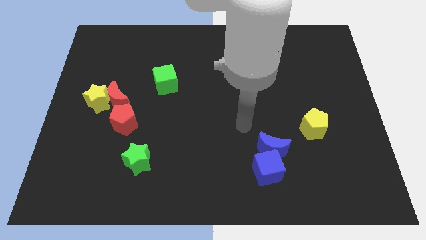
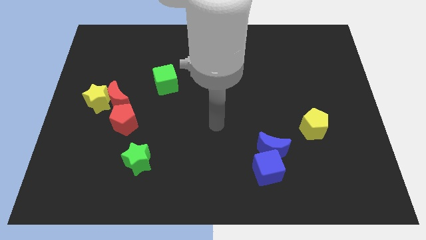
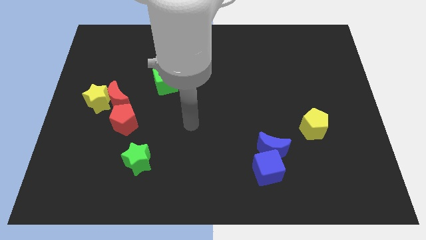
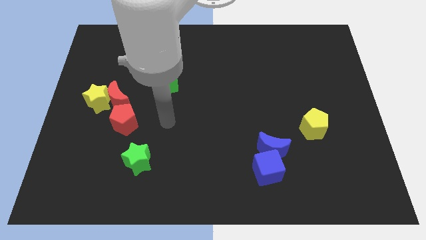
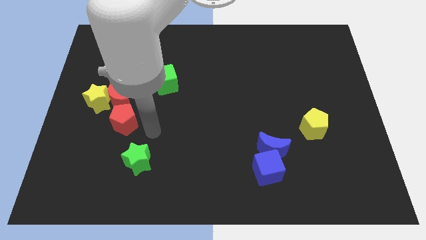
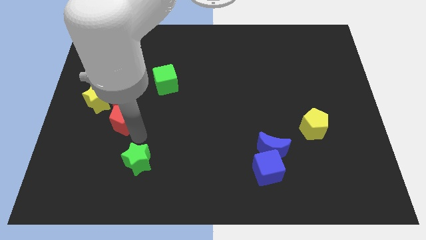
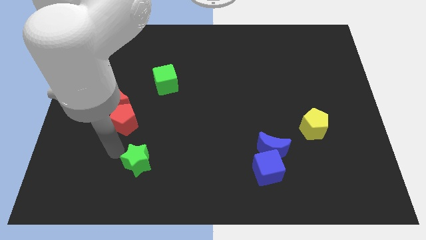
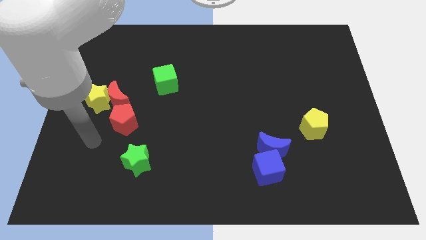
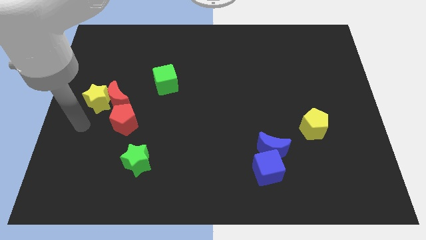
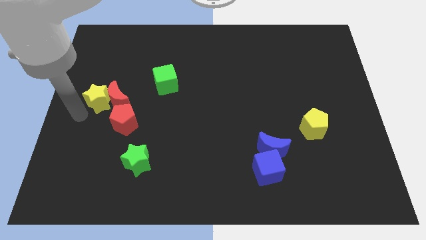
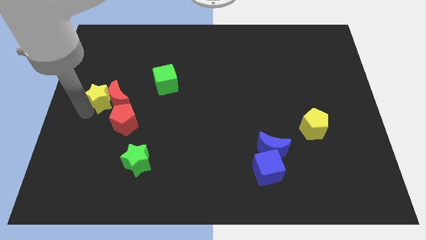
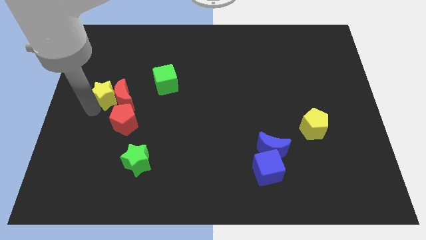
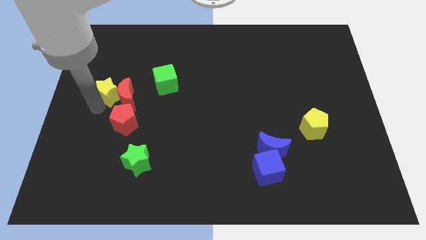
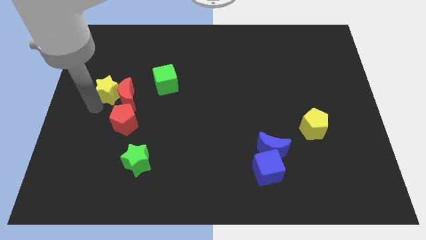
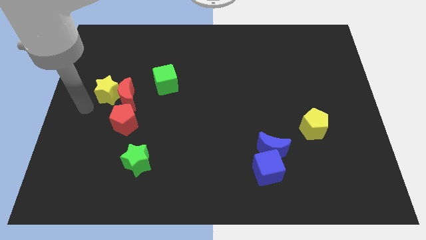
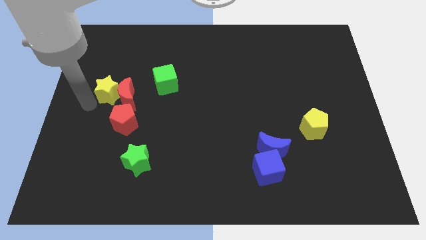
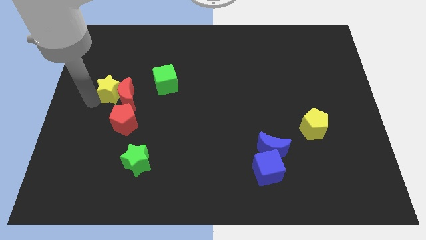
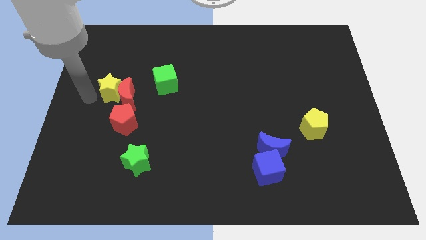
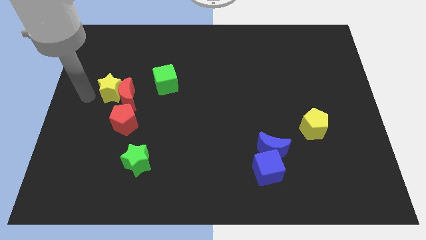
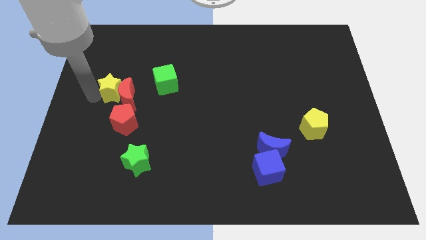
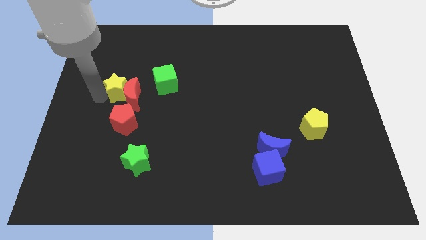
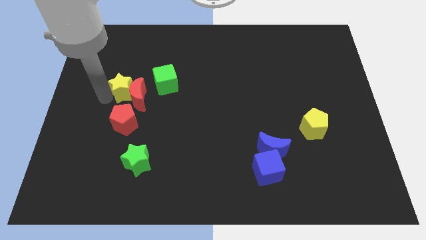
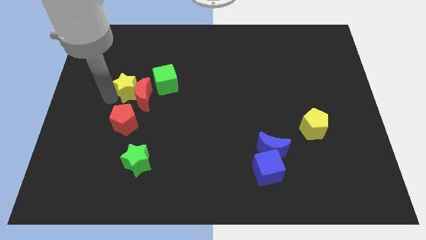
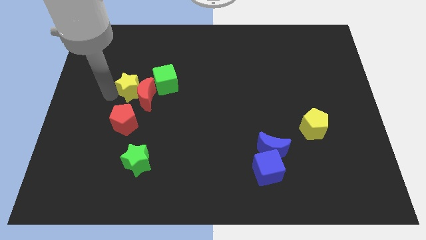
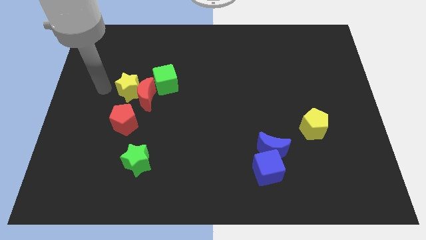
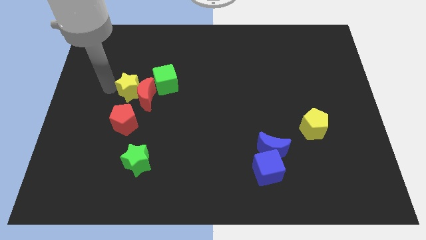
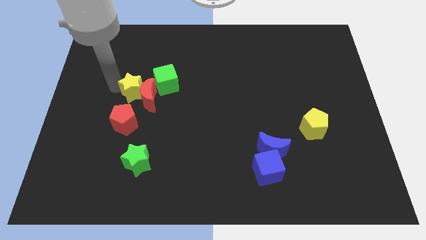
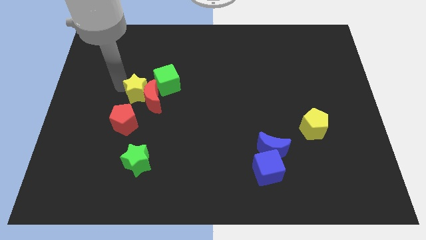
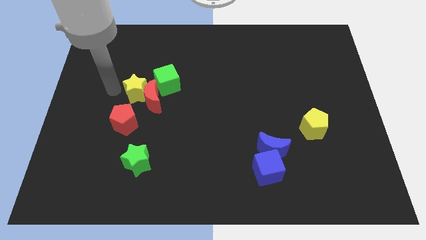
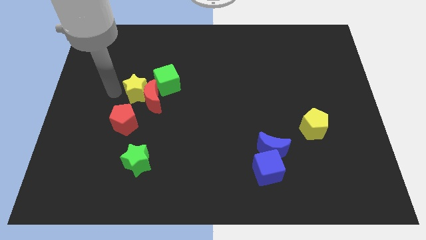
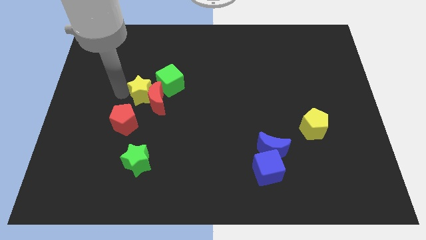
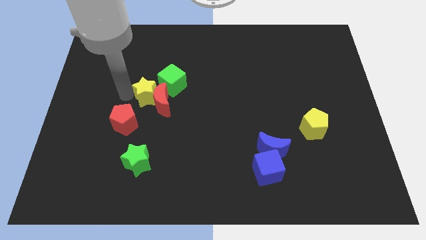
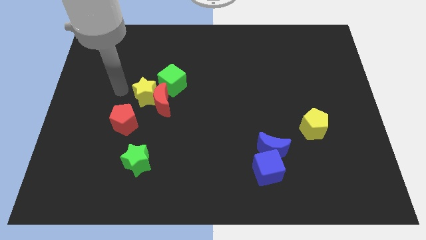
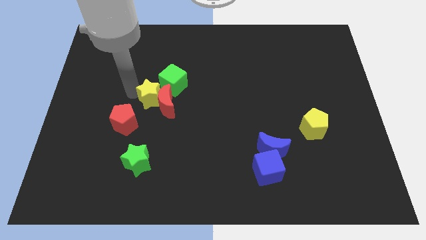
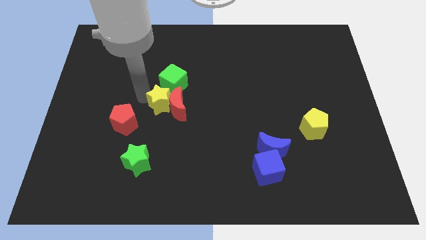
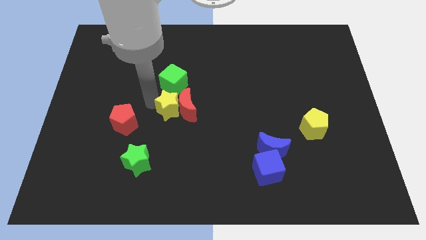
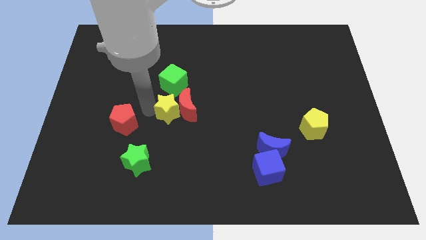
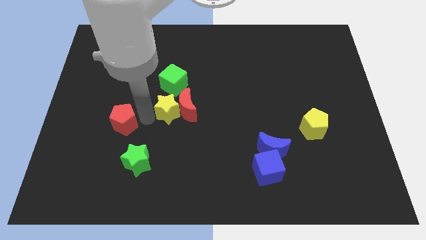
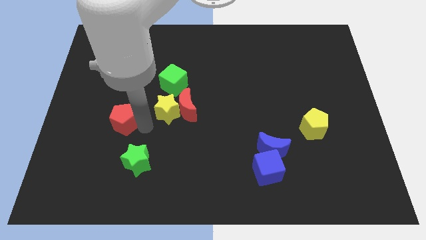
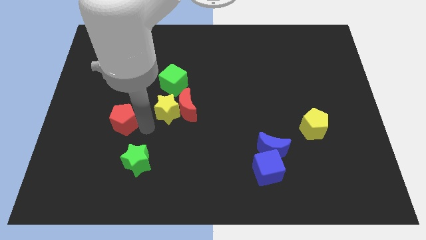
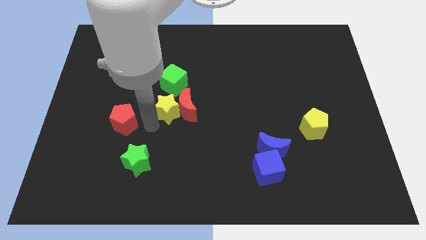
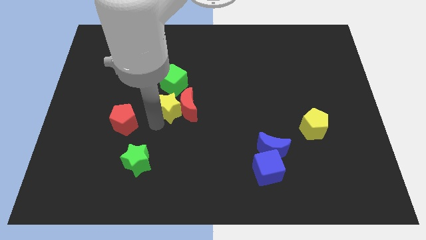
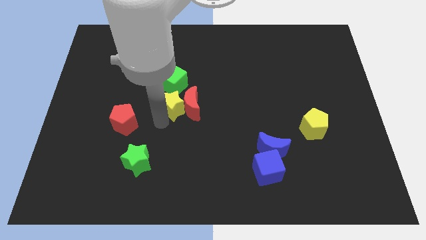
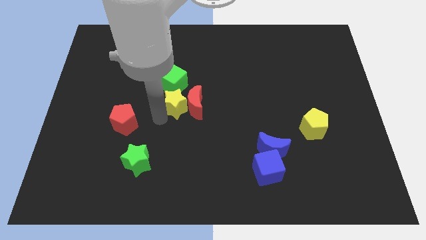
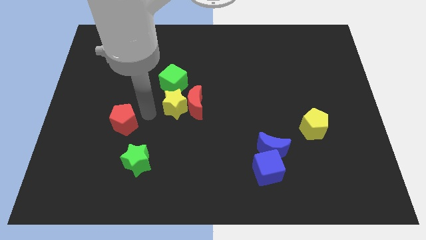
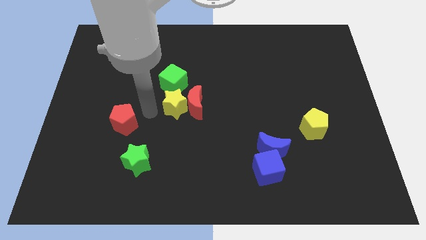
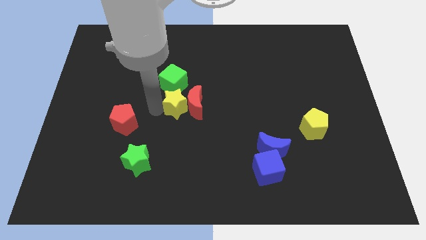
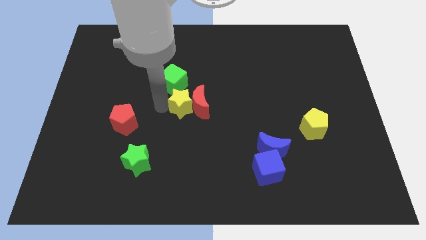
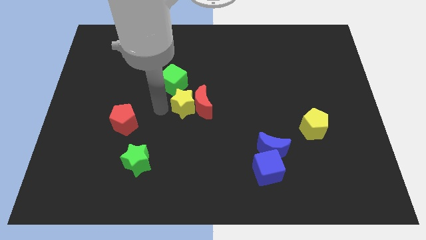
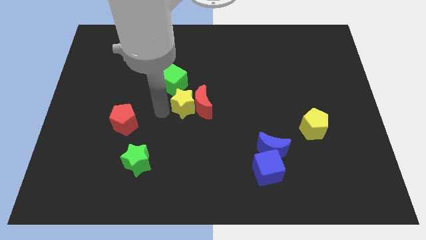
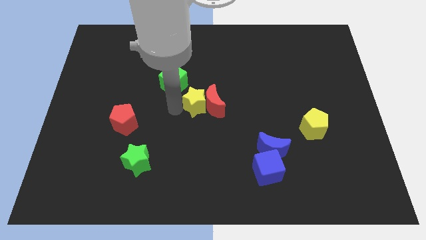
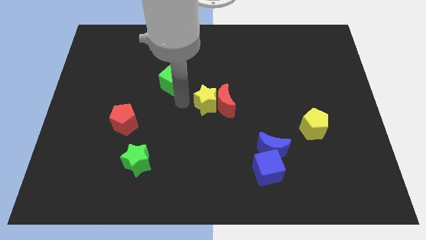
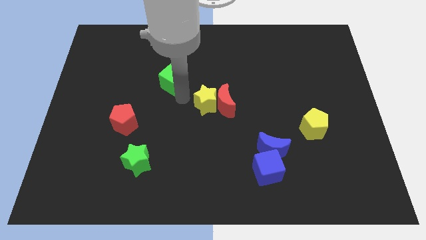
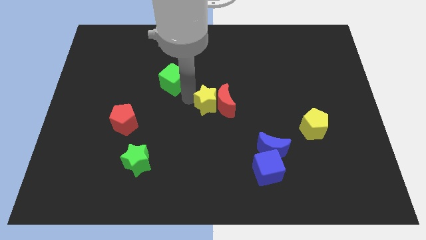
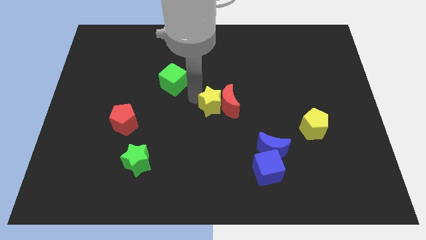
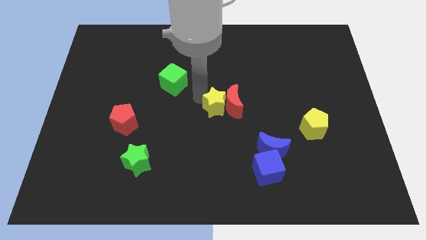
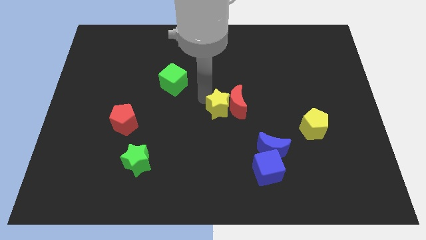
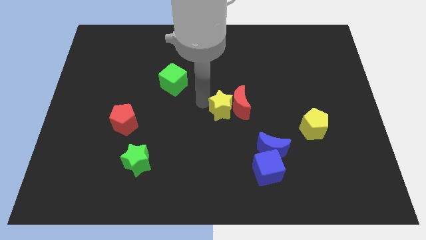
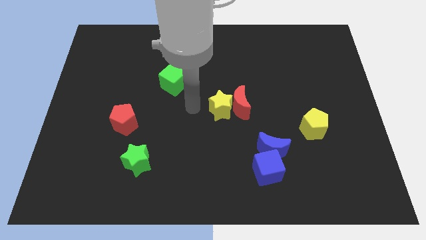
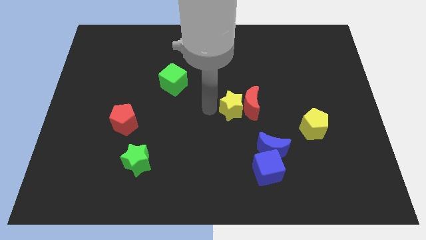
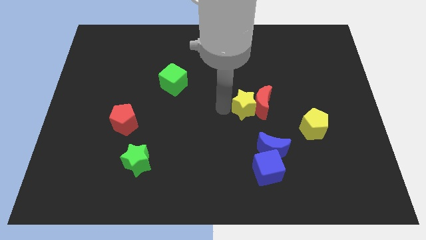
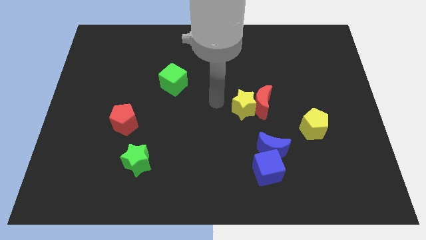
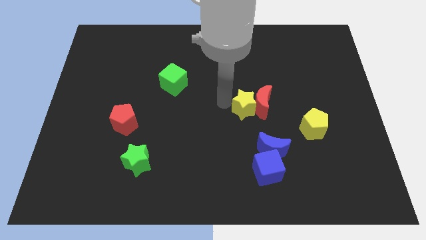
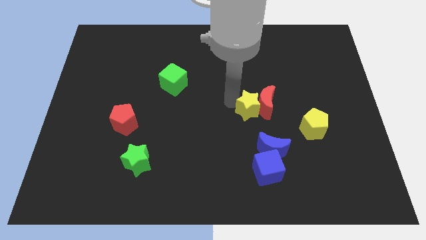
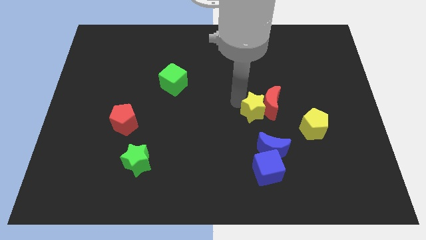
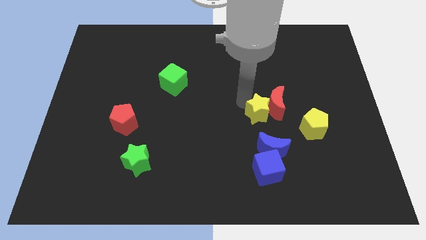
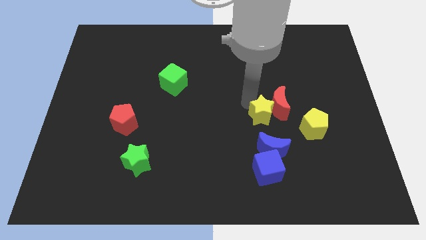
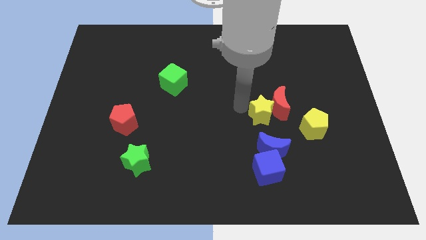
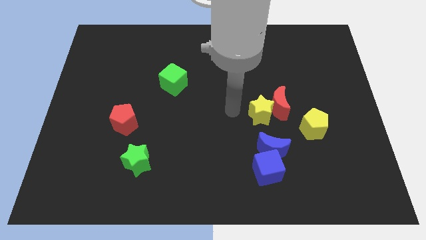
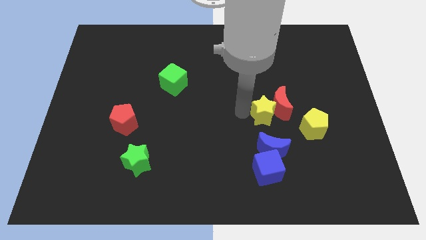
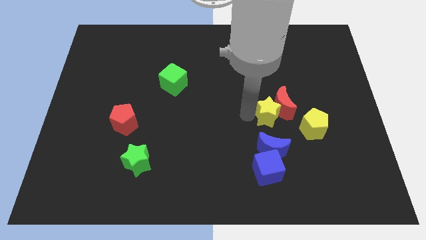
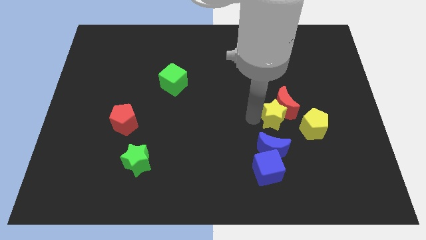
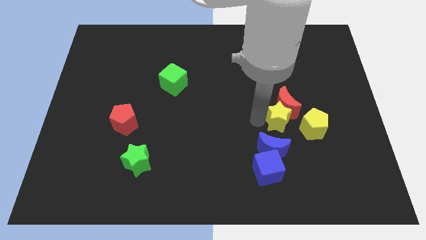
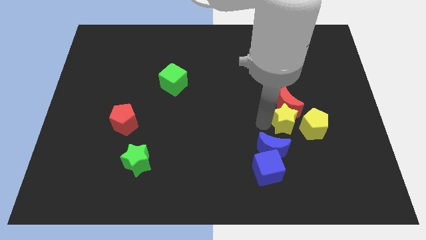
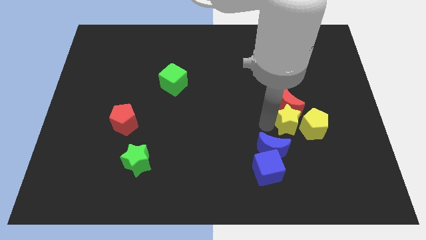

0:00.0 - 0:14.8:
move the yellow star towards the yellow pentagon
